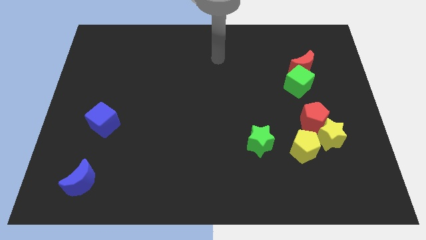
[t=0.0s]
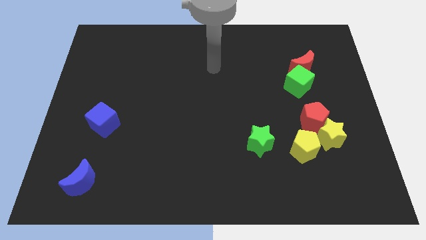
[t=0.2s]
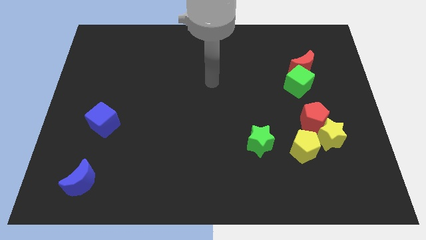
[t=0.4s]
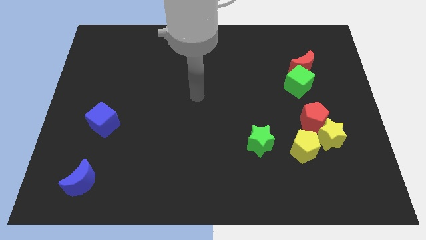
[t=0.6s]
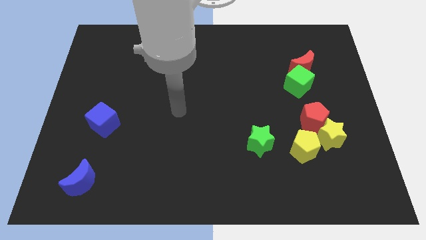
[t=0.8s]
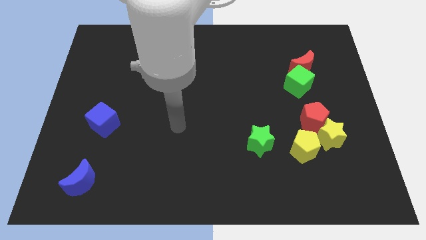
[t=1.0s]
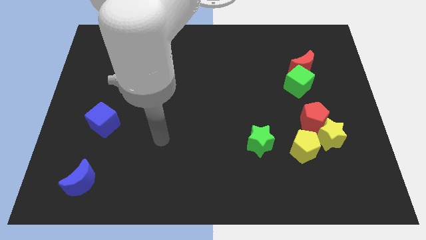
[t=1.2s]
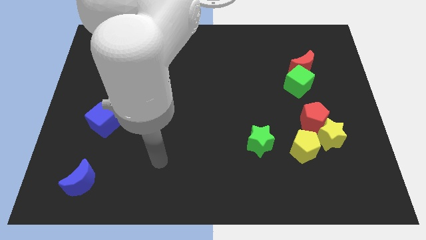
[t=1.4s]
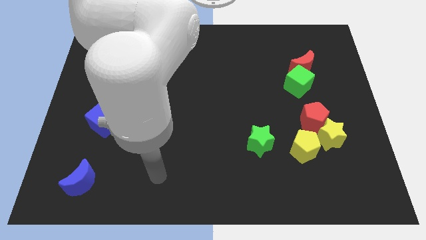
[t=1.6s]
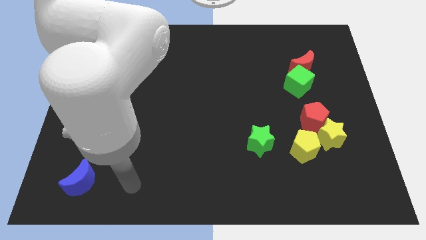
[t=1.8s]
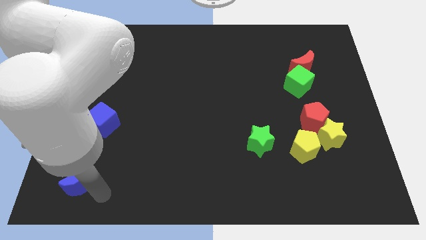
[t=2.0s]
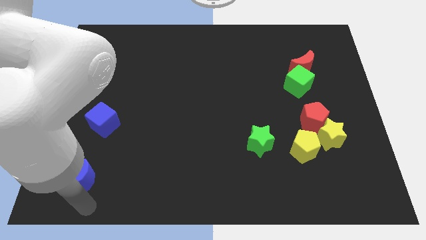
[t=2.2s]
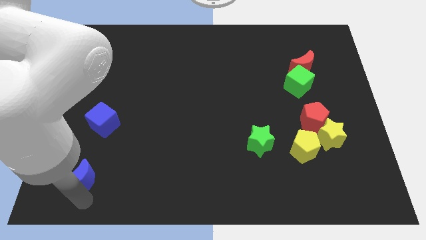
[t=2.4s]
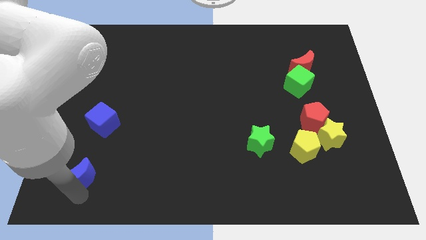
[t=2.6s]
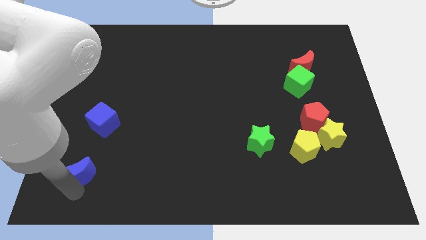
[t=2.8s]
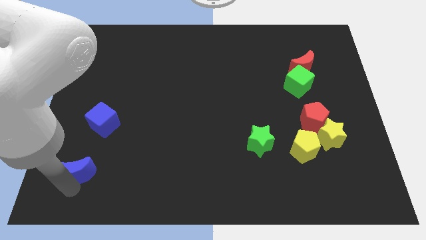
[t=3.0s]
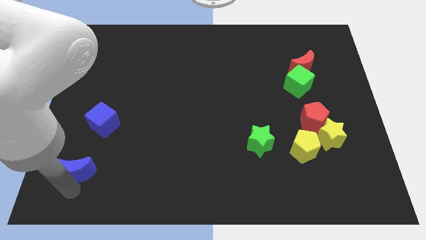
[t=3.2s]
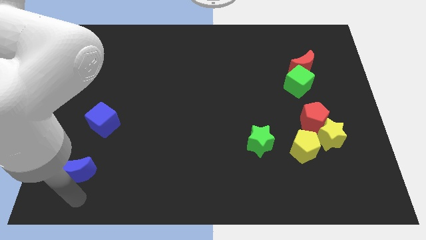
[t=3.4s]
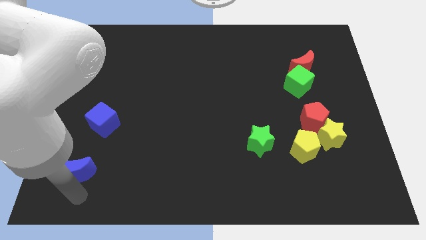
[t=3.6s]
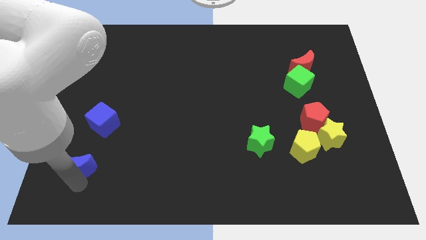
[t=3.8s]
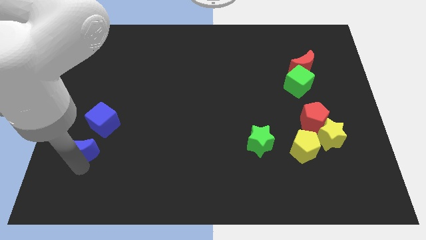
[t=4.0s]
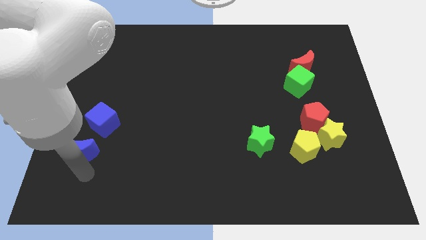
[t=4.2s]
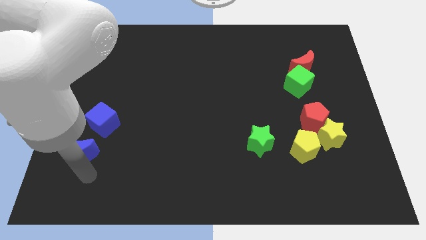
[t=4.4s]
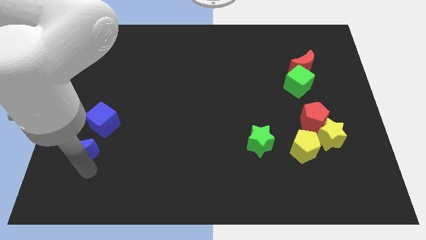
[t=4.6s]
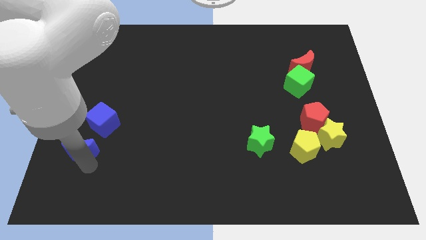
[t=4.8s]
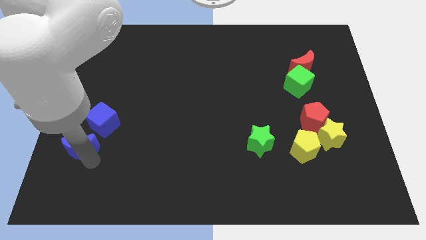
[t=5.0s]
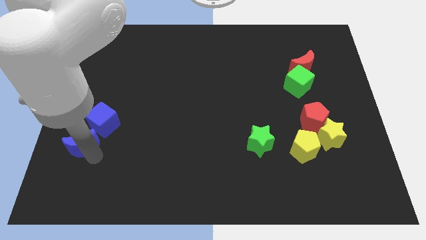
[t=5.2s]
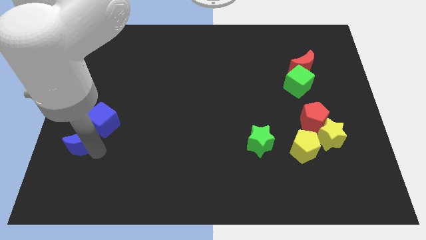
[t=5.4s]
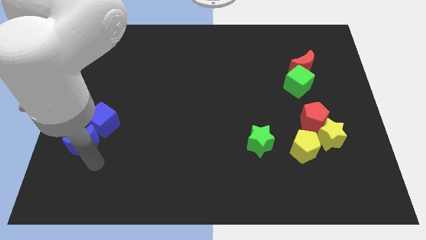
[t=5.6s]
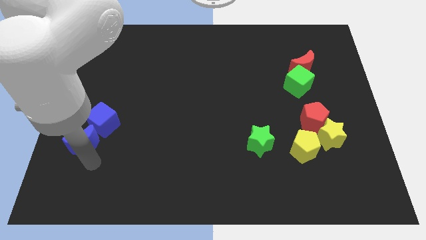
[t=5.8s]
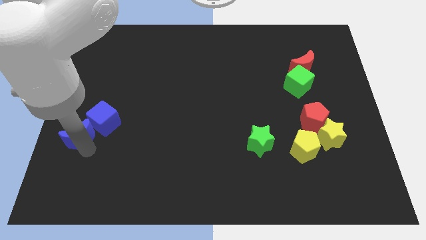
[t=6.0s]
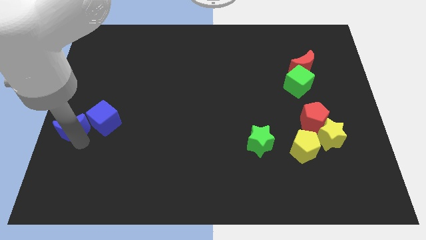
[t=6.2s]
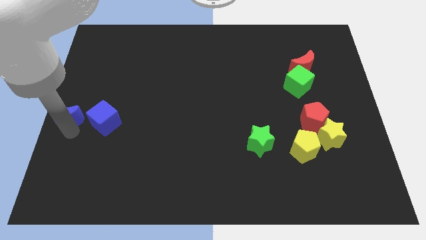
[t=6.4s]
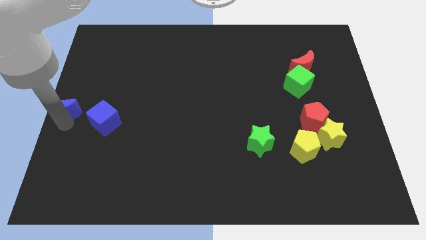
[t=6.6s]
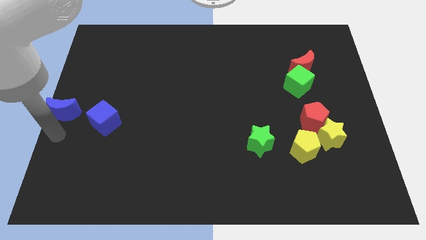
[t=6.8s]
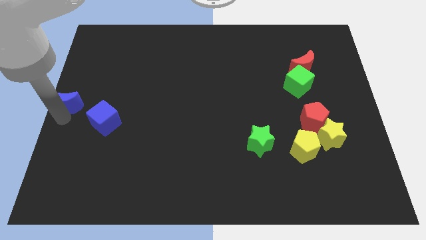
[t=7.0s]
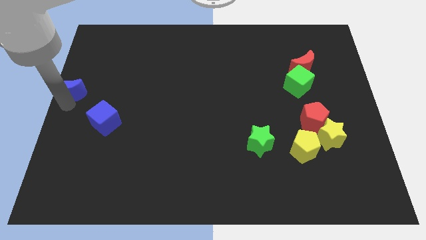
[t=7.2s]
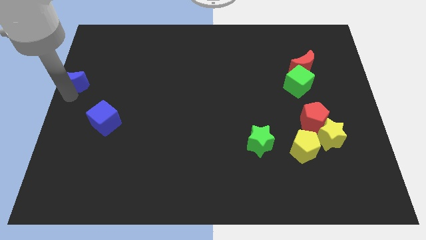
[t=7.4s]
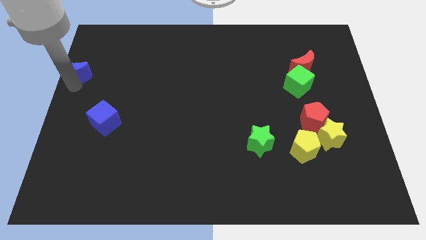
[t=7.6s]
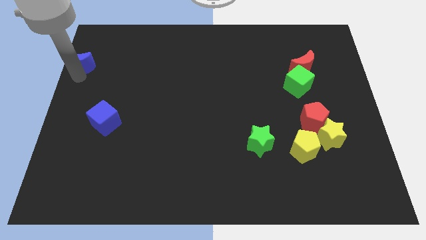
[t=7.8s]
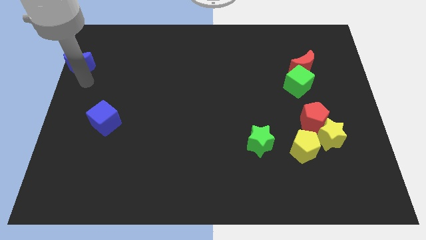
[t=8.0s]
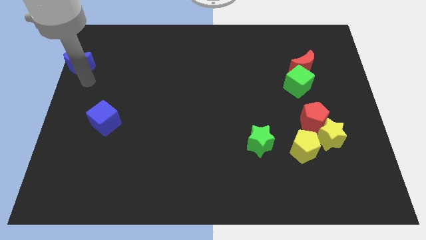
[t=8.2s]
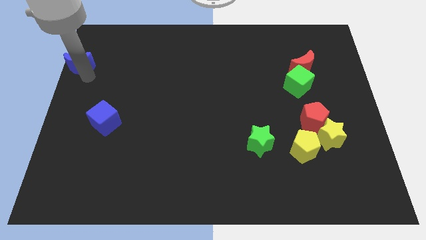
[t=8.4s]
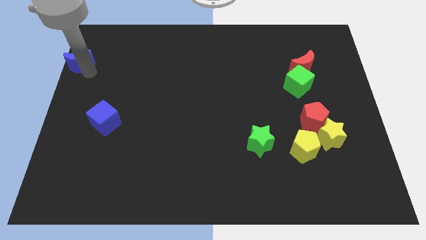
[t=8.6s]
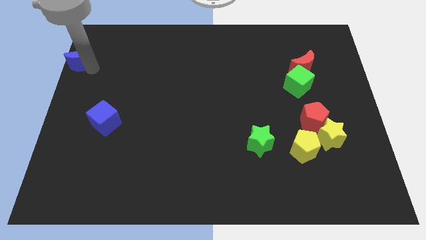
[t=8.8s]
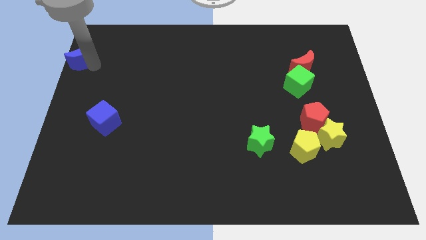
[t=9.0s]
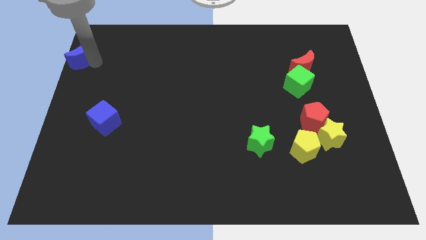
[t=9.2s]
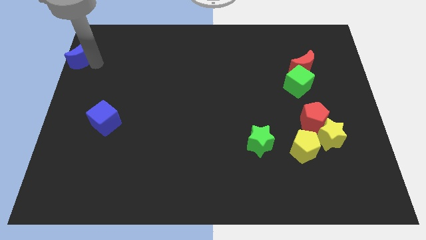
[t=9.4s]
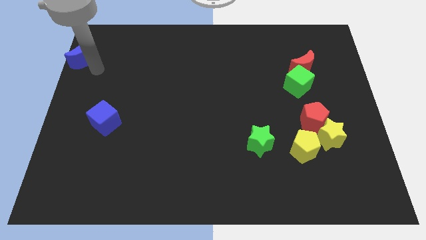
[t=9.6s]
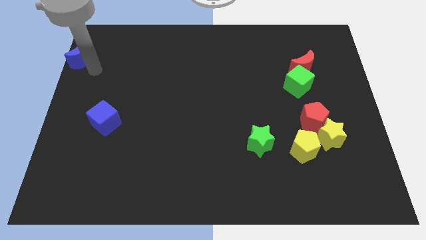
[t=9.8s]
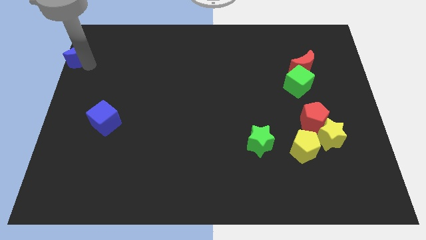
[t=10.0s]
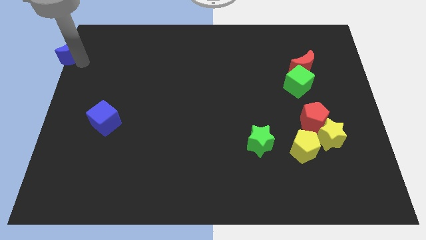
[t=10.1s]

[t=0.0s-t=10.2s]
push the blue moon to the top left corner
